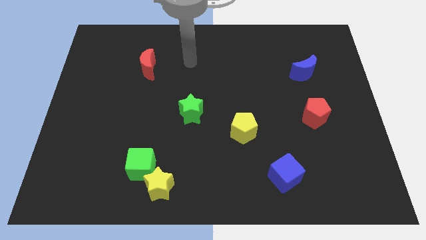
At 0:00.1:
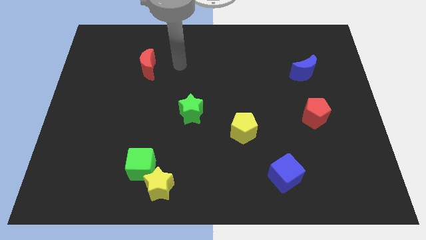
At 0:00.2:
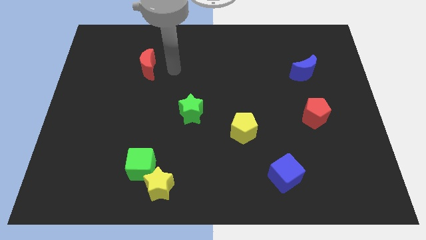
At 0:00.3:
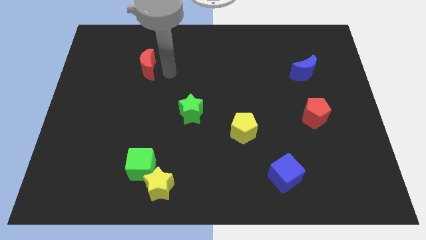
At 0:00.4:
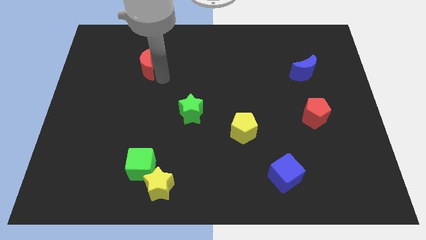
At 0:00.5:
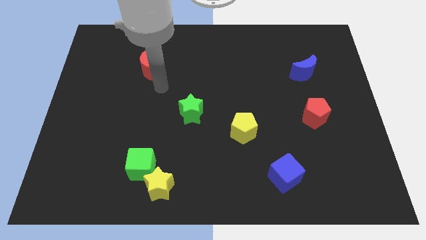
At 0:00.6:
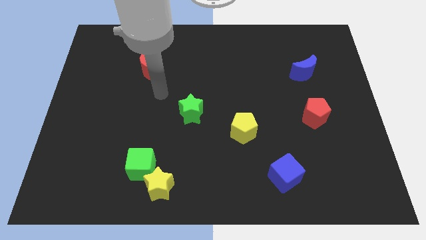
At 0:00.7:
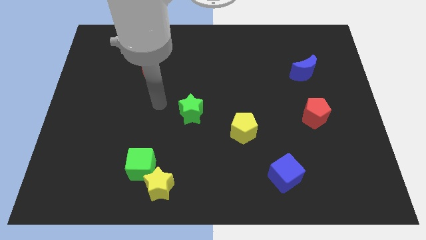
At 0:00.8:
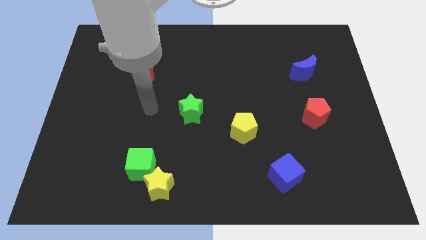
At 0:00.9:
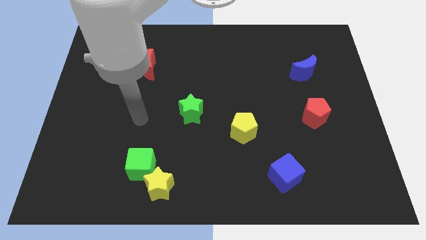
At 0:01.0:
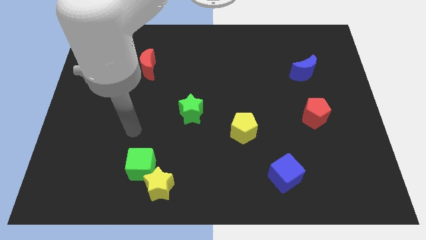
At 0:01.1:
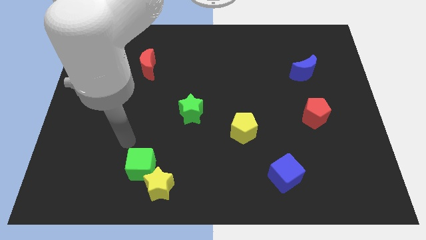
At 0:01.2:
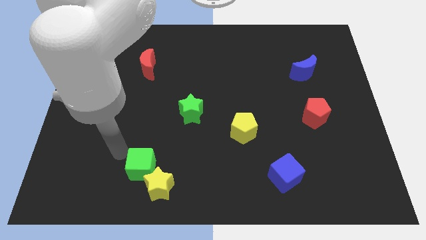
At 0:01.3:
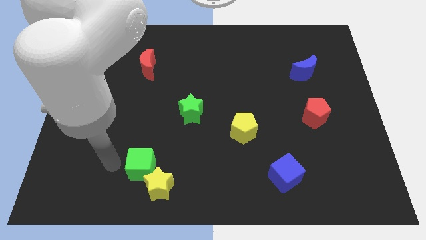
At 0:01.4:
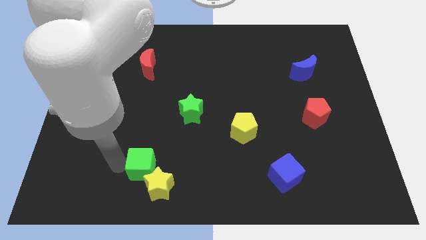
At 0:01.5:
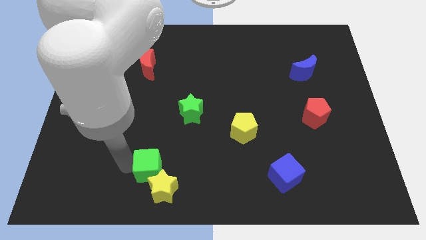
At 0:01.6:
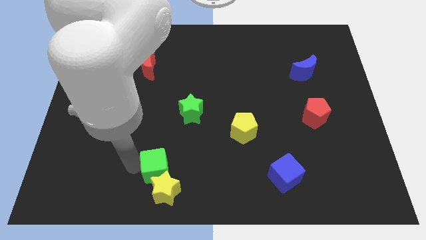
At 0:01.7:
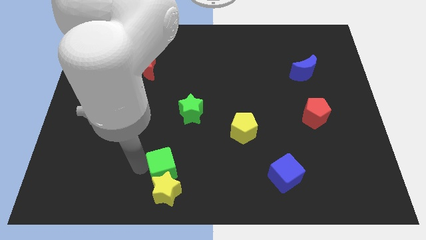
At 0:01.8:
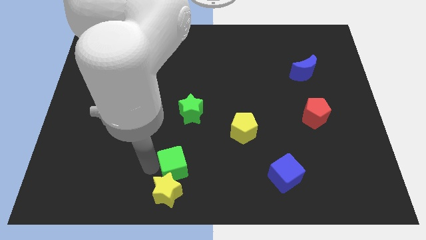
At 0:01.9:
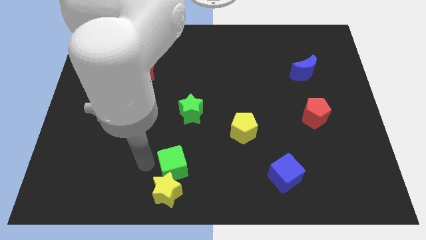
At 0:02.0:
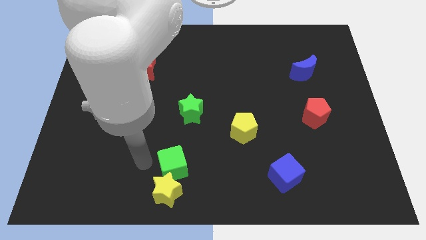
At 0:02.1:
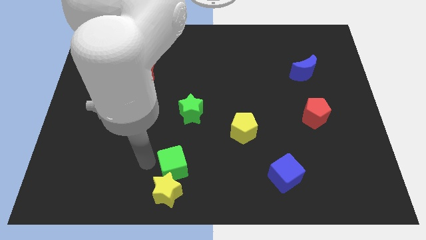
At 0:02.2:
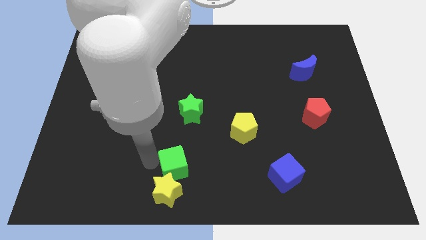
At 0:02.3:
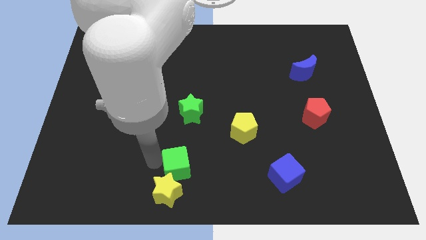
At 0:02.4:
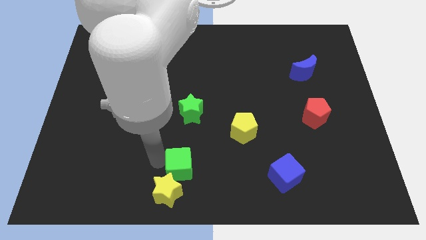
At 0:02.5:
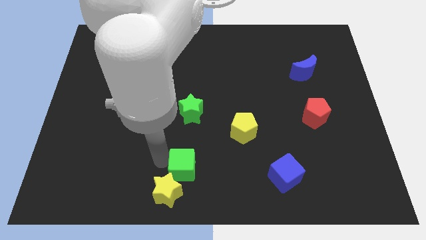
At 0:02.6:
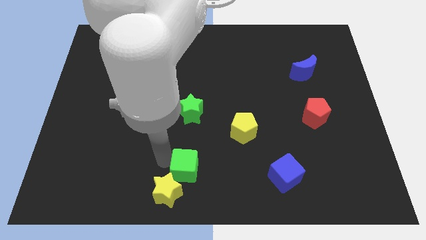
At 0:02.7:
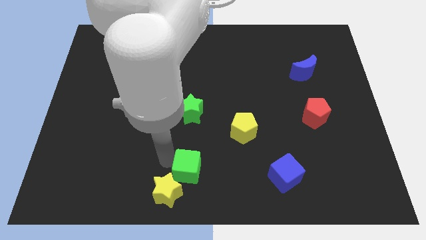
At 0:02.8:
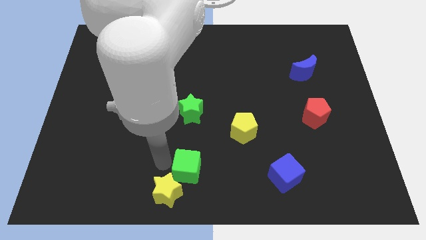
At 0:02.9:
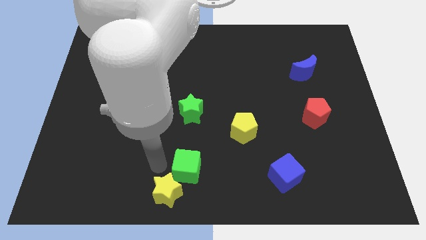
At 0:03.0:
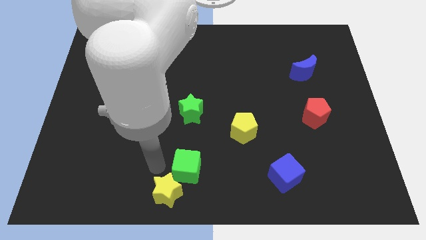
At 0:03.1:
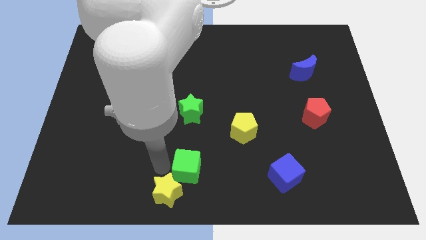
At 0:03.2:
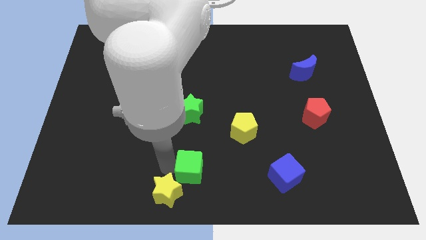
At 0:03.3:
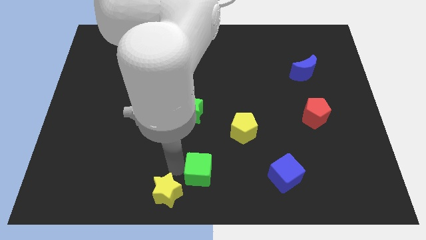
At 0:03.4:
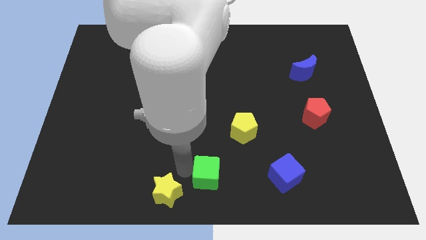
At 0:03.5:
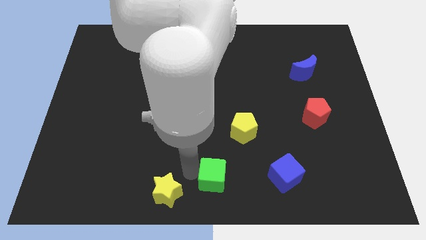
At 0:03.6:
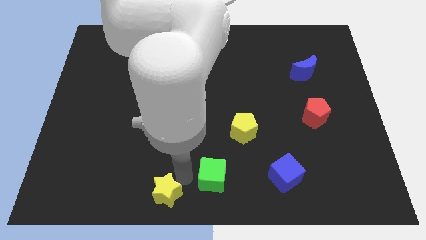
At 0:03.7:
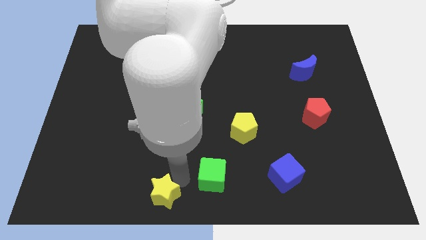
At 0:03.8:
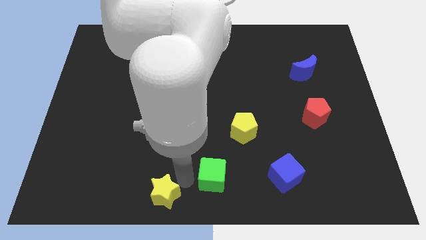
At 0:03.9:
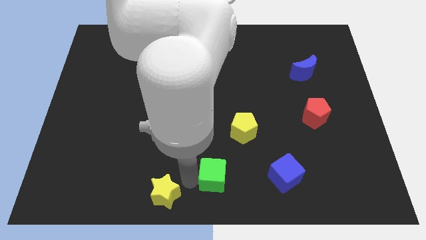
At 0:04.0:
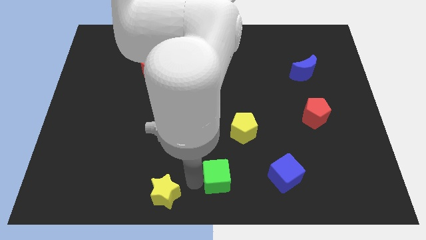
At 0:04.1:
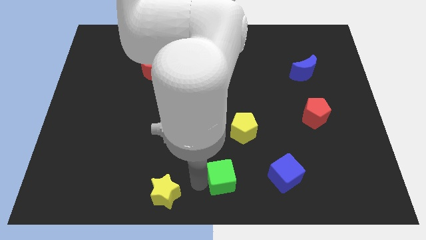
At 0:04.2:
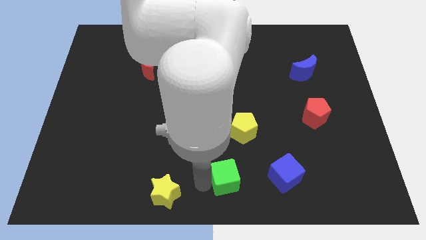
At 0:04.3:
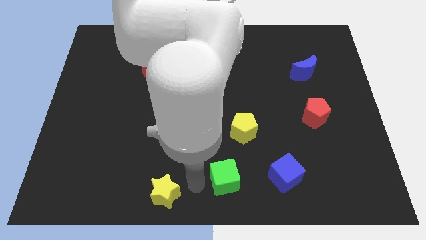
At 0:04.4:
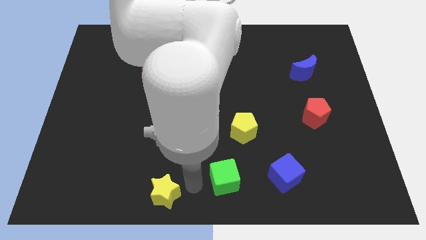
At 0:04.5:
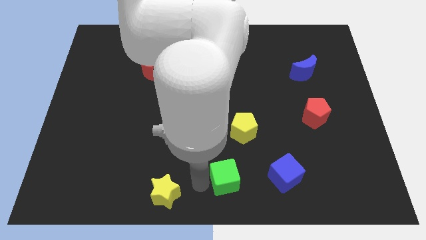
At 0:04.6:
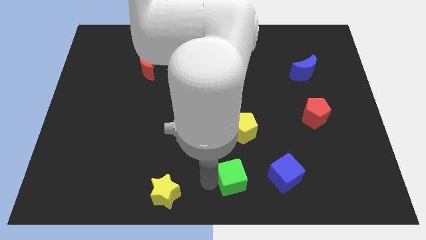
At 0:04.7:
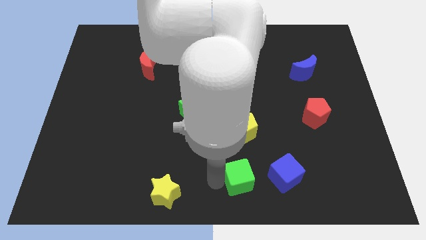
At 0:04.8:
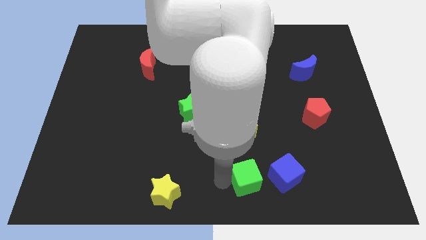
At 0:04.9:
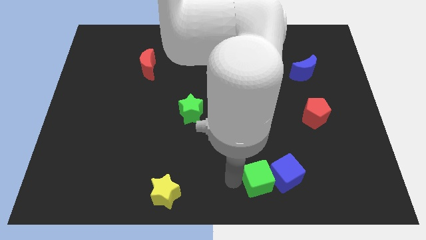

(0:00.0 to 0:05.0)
move the green cube close to the blue cube

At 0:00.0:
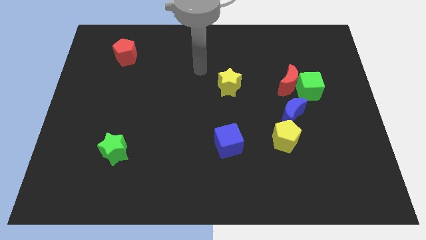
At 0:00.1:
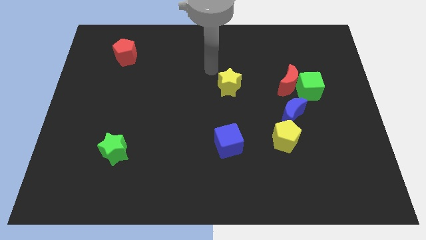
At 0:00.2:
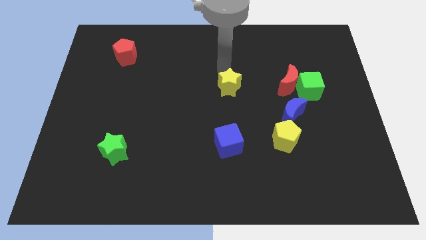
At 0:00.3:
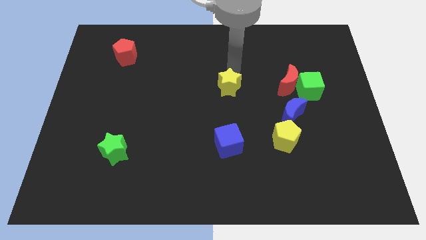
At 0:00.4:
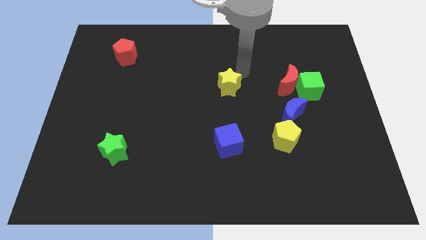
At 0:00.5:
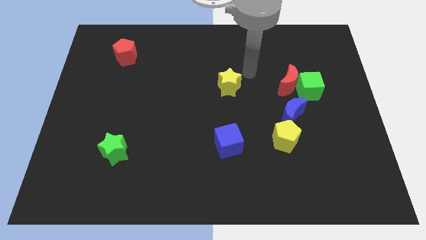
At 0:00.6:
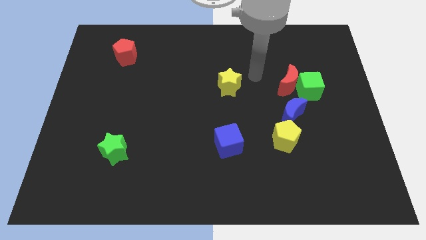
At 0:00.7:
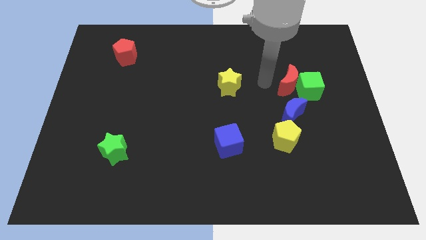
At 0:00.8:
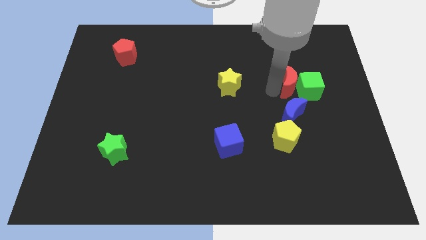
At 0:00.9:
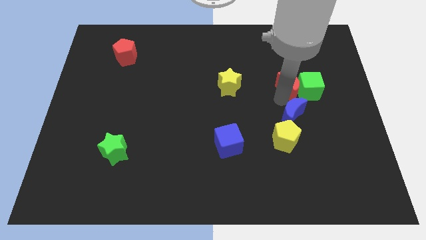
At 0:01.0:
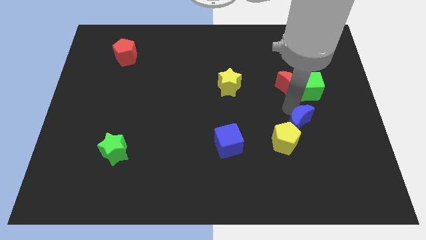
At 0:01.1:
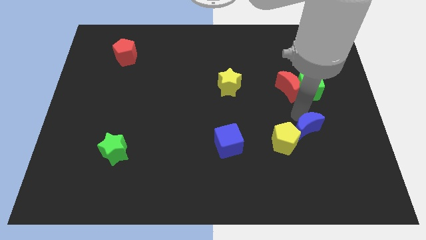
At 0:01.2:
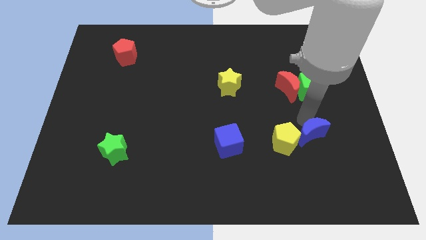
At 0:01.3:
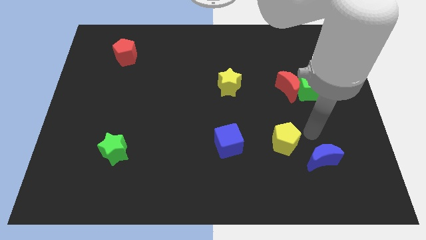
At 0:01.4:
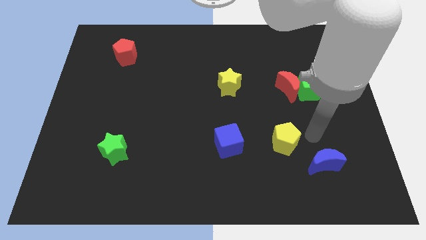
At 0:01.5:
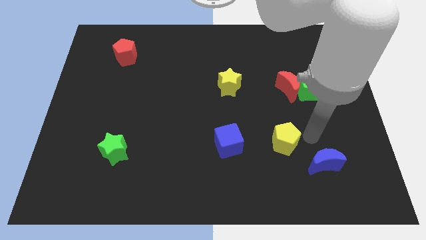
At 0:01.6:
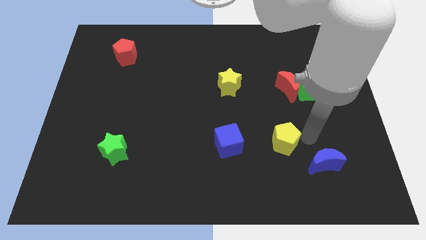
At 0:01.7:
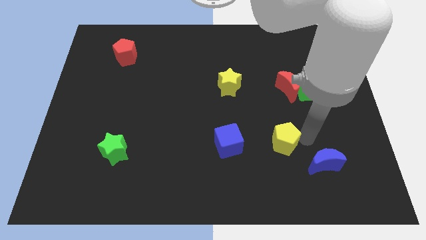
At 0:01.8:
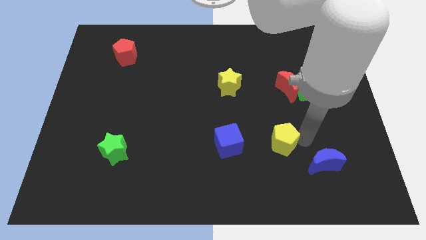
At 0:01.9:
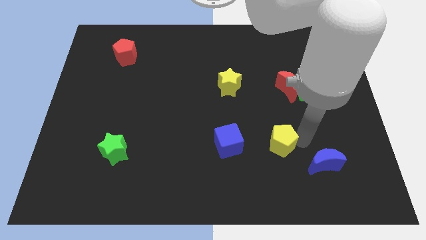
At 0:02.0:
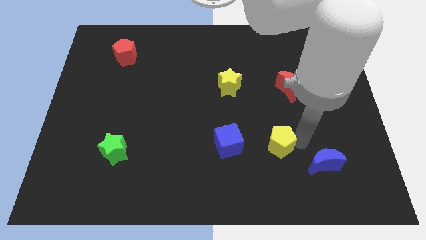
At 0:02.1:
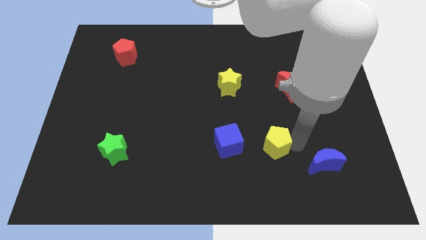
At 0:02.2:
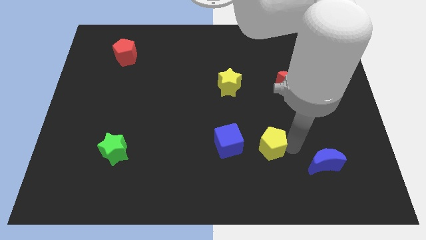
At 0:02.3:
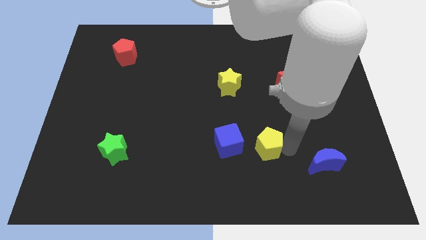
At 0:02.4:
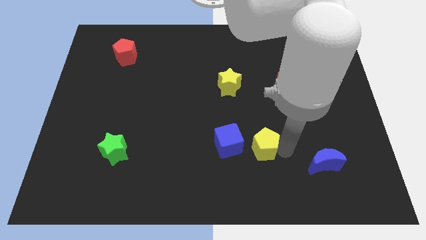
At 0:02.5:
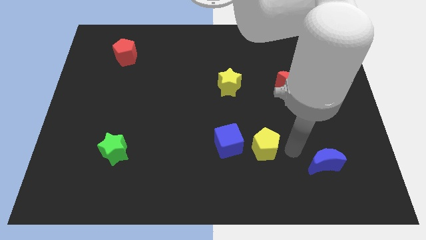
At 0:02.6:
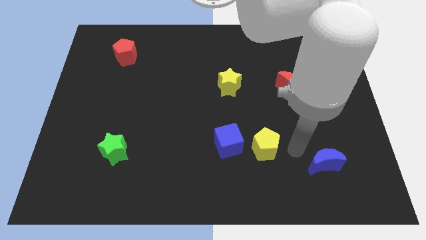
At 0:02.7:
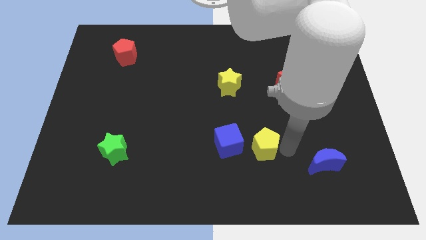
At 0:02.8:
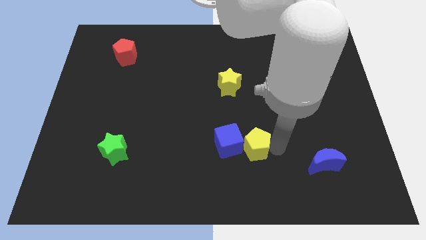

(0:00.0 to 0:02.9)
put the yellow pentagon close to the blue cube

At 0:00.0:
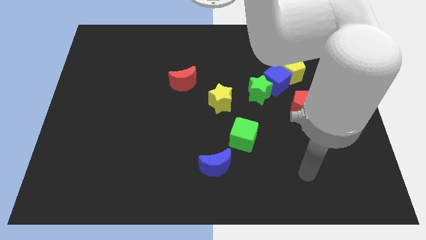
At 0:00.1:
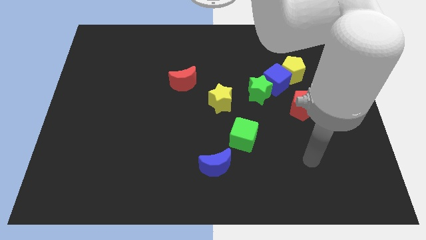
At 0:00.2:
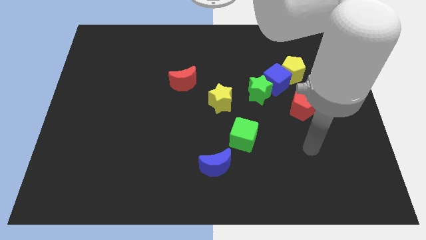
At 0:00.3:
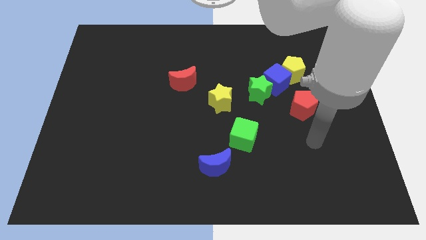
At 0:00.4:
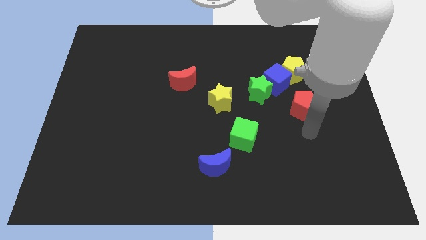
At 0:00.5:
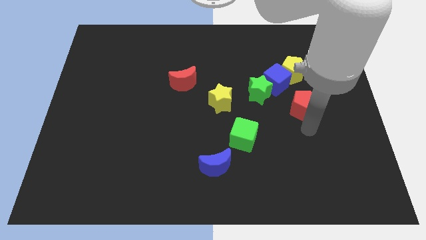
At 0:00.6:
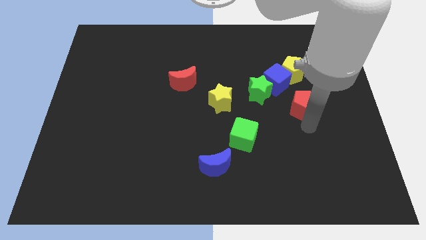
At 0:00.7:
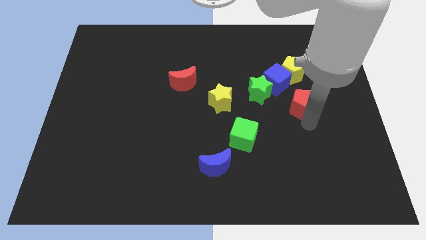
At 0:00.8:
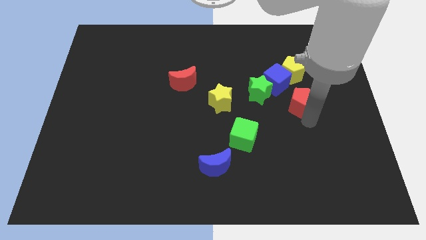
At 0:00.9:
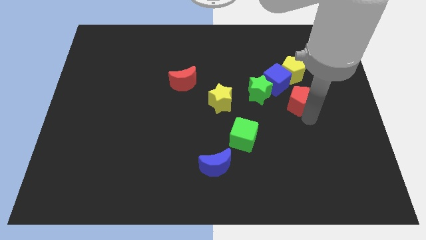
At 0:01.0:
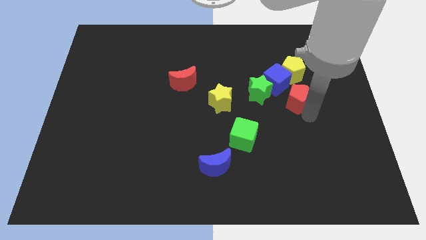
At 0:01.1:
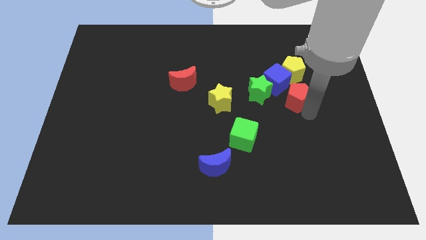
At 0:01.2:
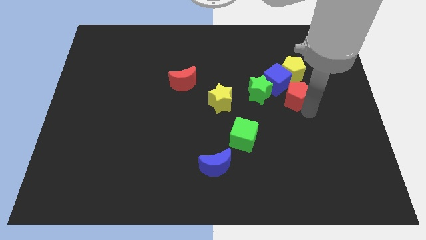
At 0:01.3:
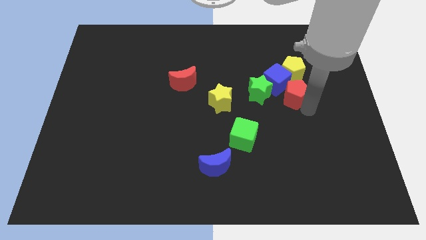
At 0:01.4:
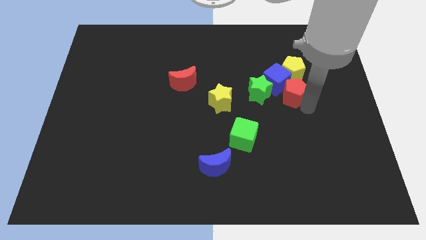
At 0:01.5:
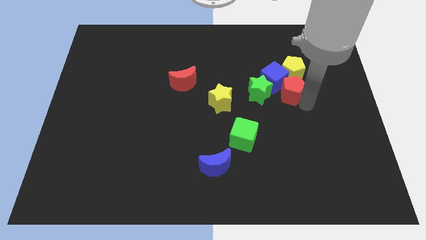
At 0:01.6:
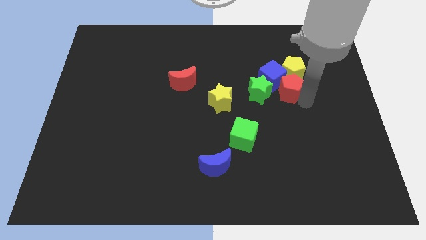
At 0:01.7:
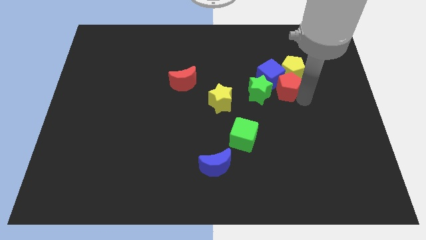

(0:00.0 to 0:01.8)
move the red pentagon close to the yellow pentagon
